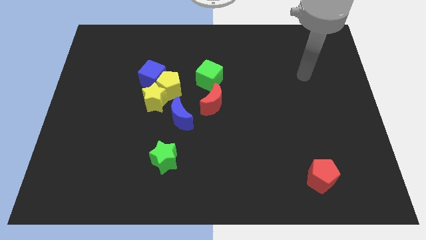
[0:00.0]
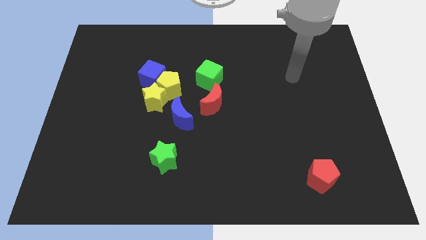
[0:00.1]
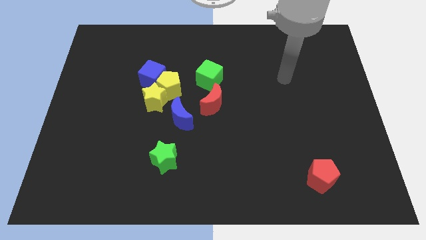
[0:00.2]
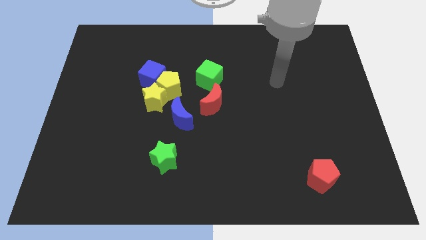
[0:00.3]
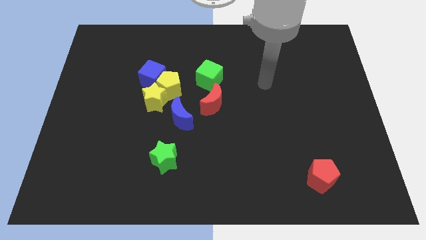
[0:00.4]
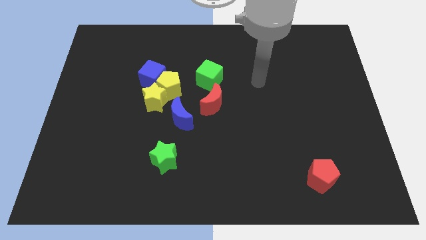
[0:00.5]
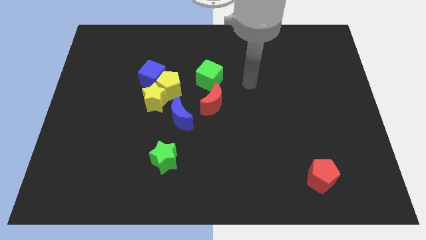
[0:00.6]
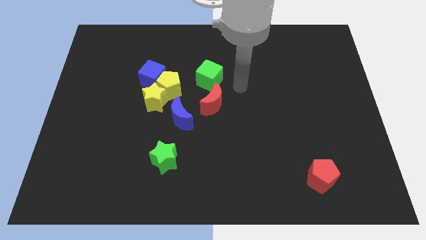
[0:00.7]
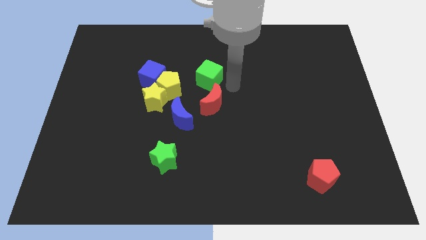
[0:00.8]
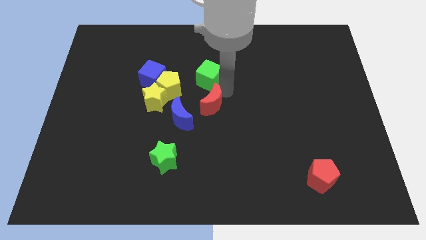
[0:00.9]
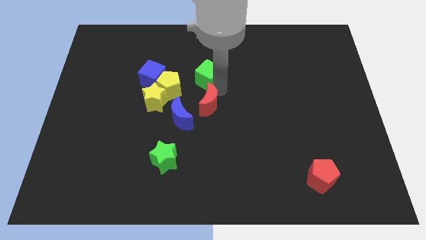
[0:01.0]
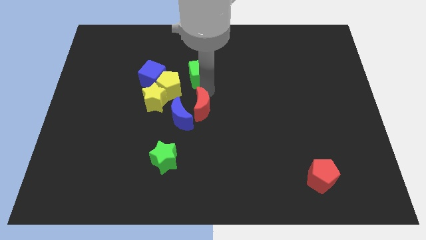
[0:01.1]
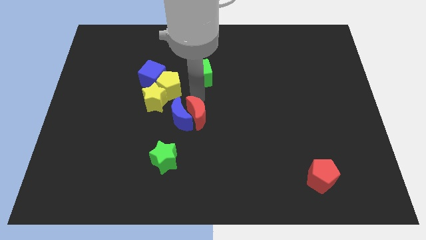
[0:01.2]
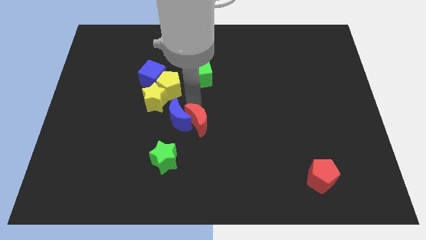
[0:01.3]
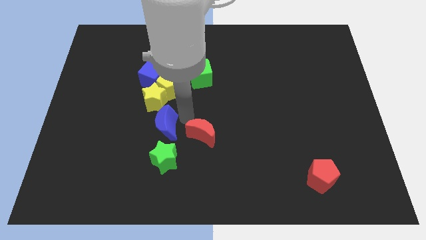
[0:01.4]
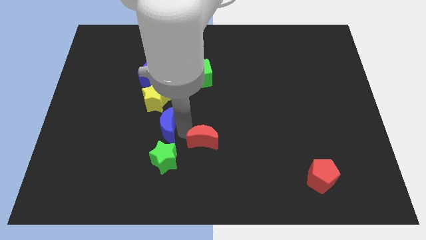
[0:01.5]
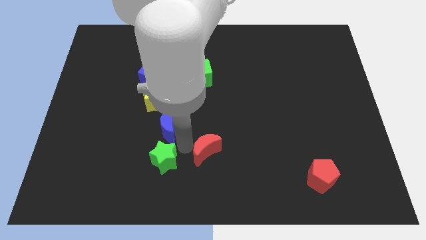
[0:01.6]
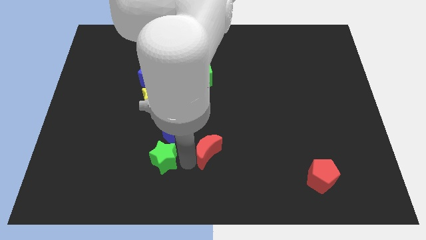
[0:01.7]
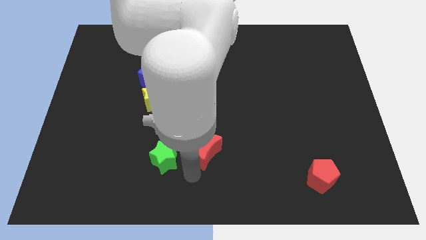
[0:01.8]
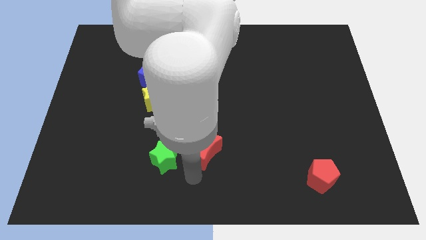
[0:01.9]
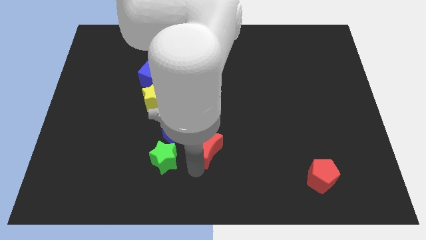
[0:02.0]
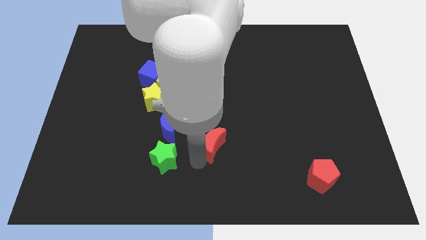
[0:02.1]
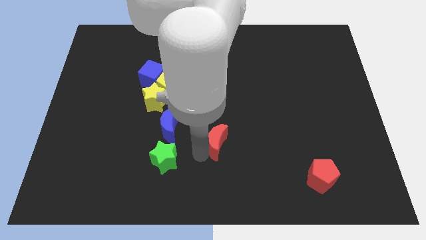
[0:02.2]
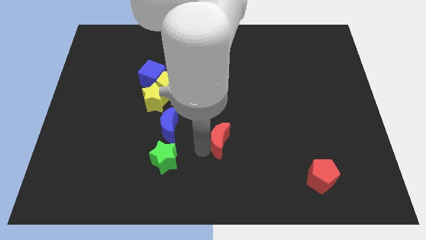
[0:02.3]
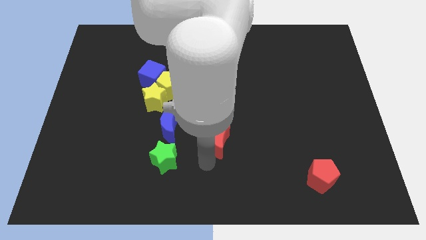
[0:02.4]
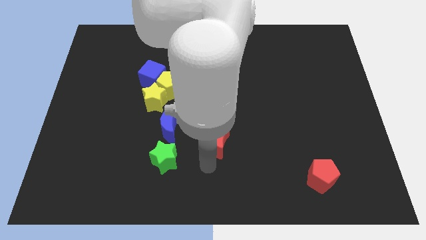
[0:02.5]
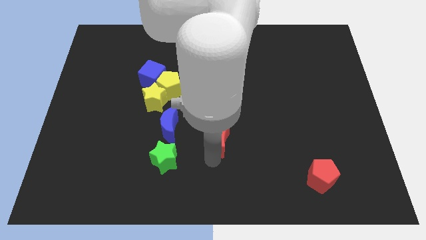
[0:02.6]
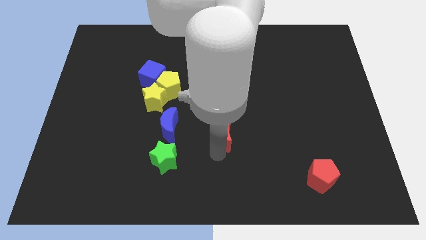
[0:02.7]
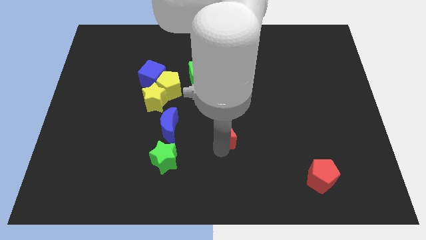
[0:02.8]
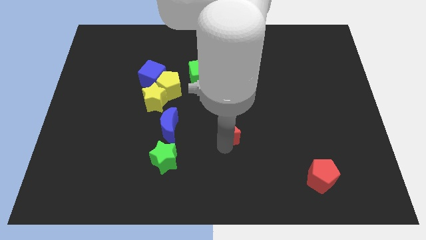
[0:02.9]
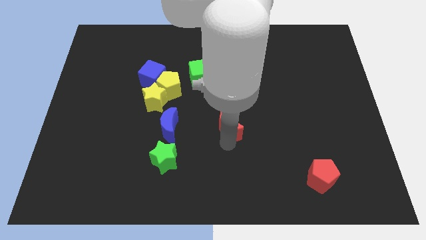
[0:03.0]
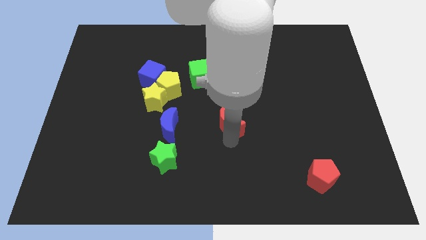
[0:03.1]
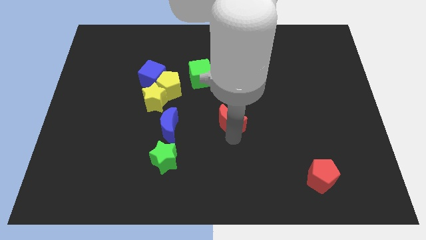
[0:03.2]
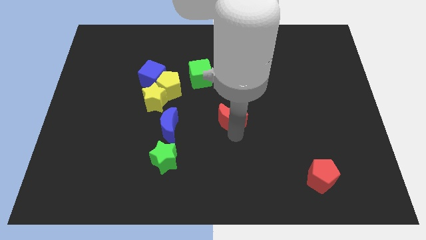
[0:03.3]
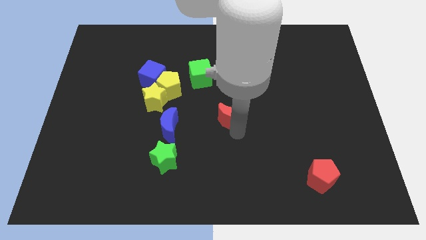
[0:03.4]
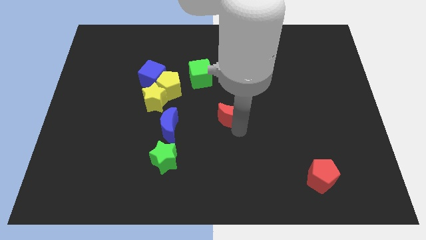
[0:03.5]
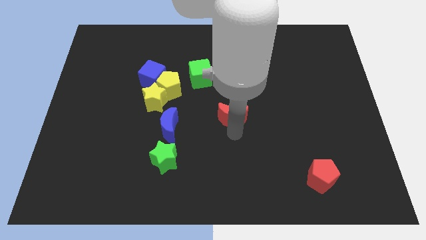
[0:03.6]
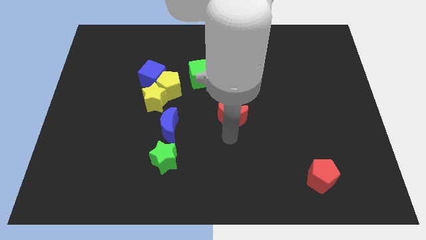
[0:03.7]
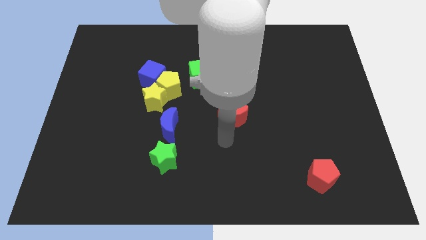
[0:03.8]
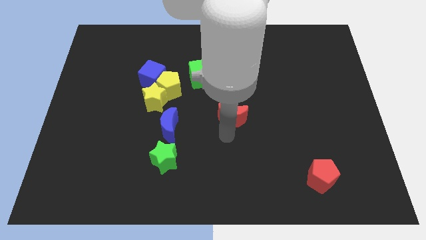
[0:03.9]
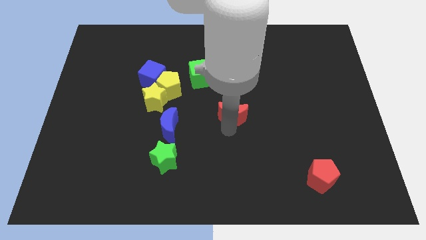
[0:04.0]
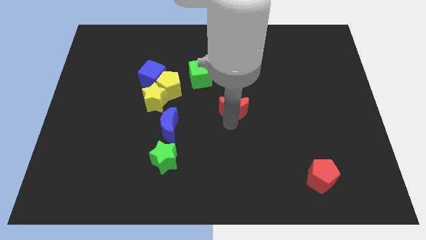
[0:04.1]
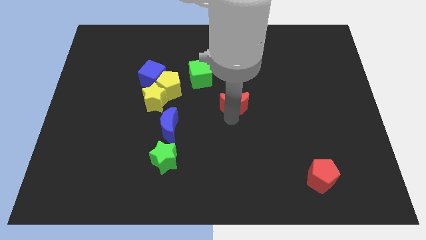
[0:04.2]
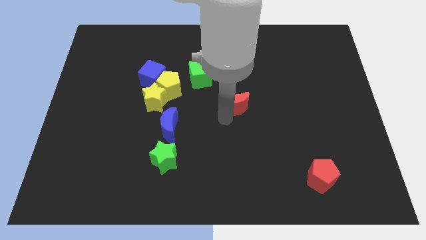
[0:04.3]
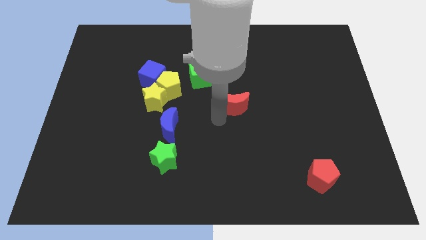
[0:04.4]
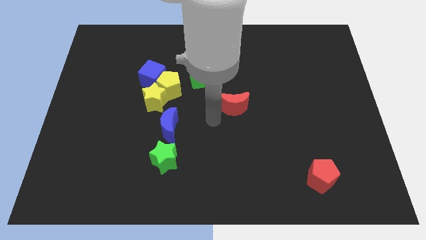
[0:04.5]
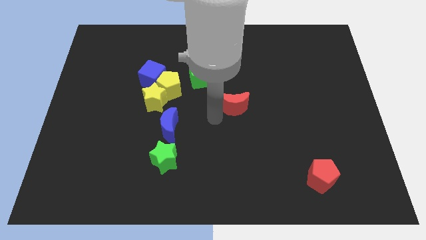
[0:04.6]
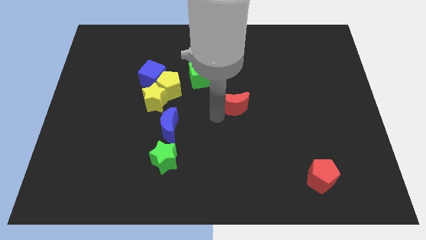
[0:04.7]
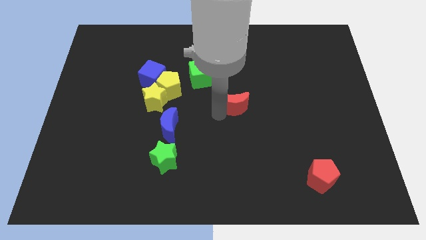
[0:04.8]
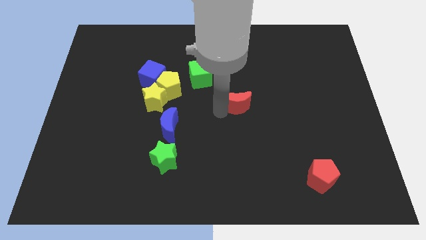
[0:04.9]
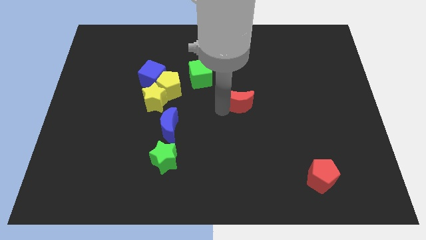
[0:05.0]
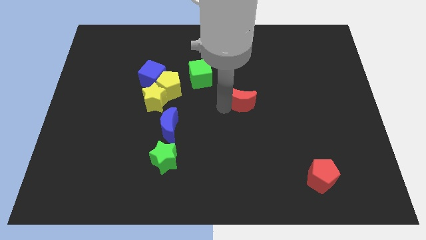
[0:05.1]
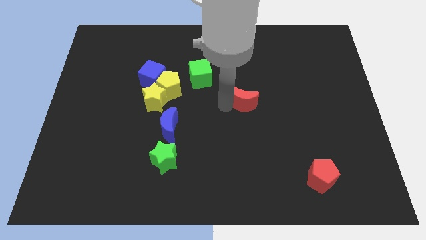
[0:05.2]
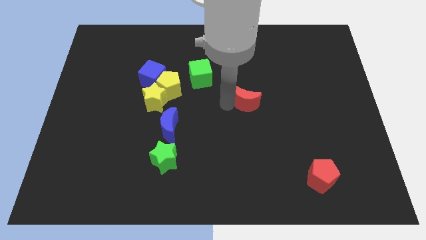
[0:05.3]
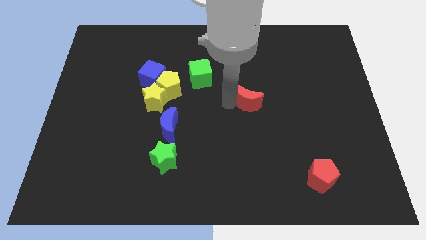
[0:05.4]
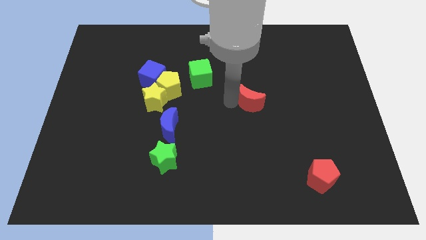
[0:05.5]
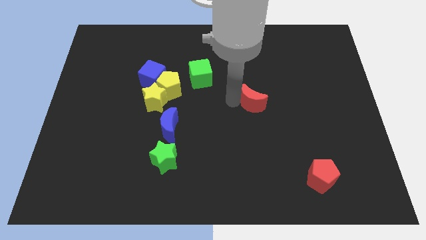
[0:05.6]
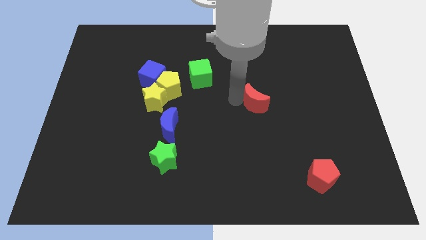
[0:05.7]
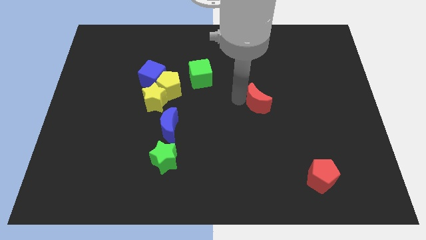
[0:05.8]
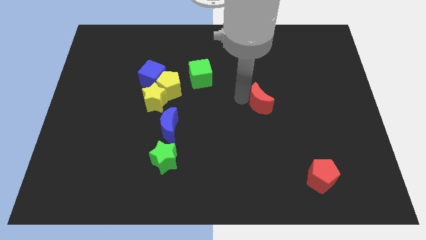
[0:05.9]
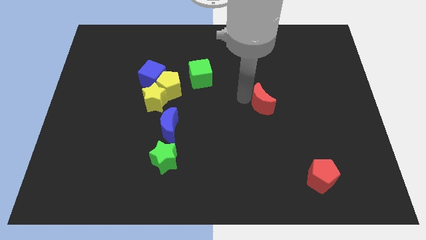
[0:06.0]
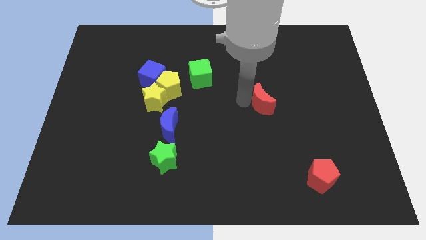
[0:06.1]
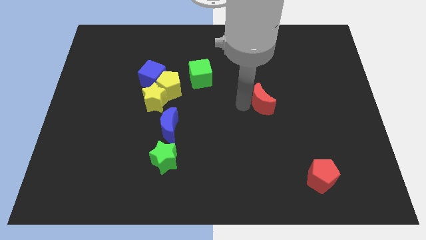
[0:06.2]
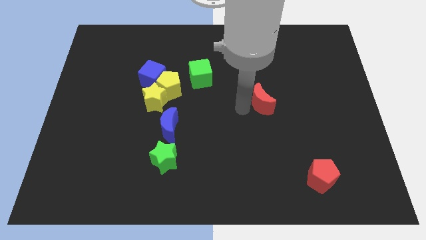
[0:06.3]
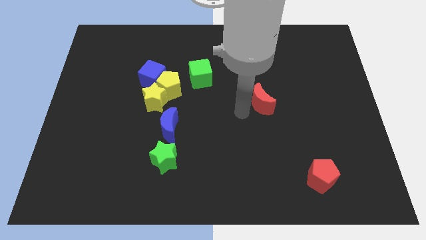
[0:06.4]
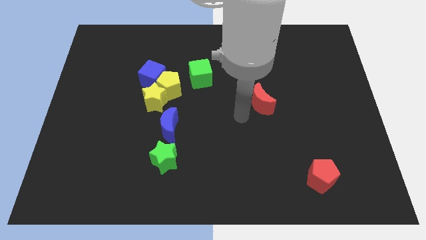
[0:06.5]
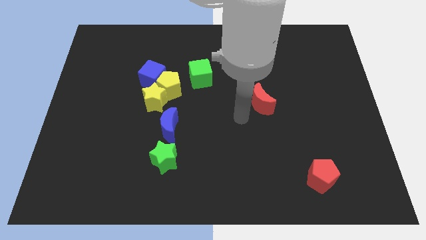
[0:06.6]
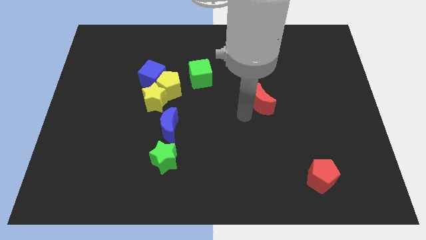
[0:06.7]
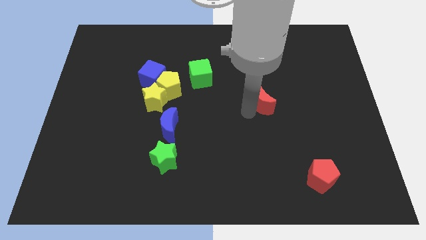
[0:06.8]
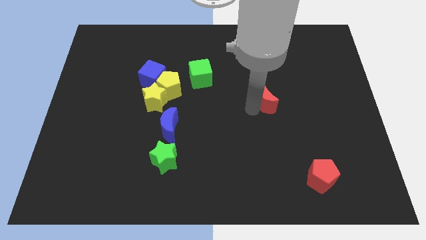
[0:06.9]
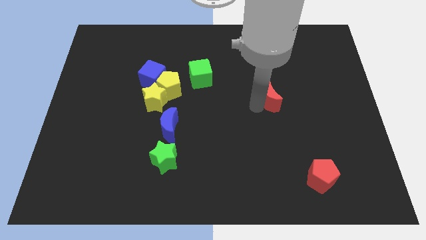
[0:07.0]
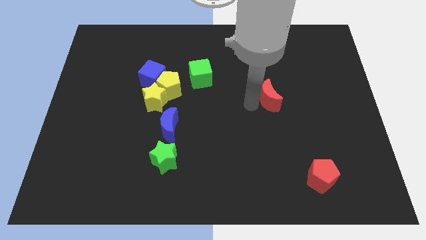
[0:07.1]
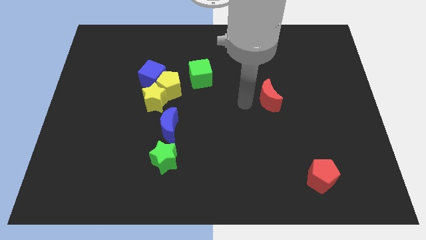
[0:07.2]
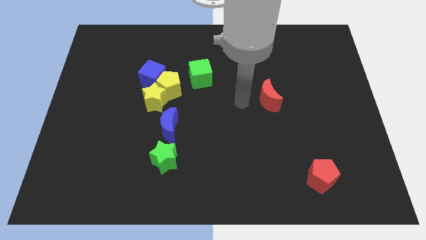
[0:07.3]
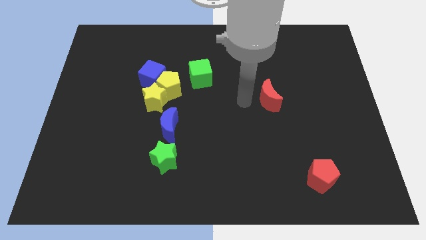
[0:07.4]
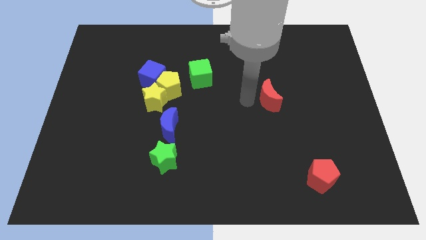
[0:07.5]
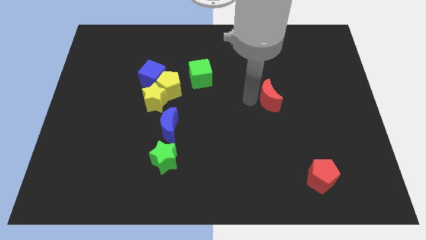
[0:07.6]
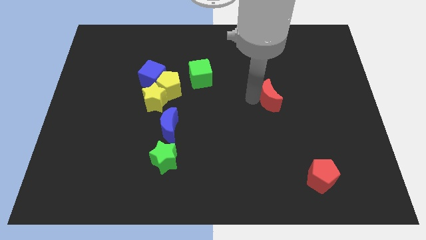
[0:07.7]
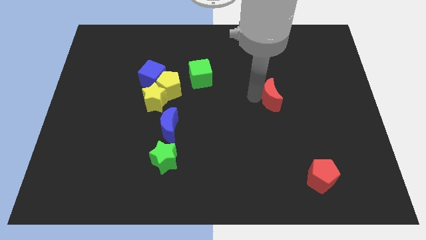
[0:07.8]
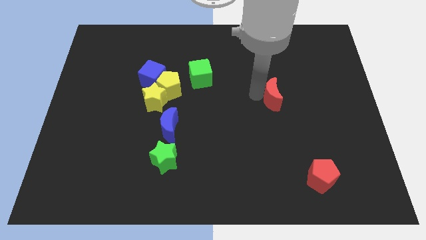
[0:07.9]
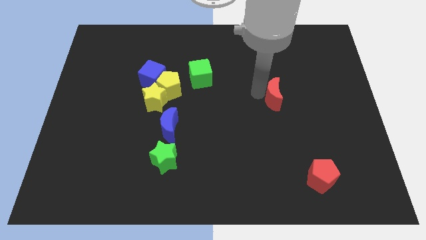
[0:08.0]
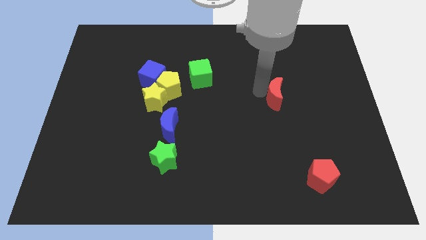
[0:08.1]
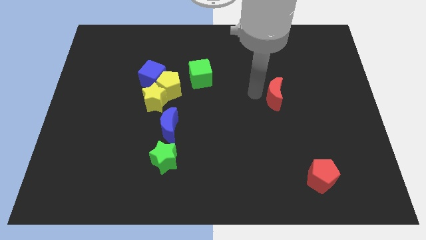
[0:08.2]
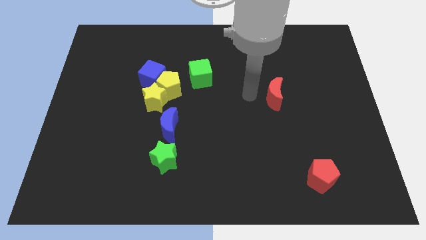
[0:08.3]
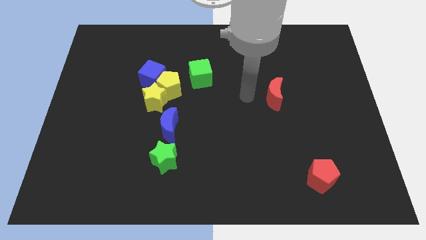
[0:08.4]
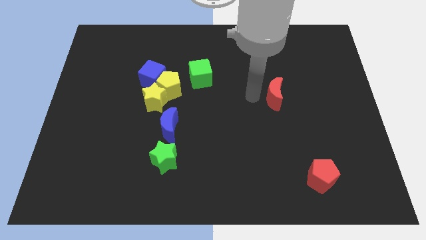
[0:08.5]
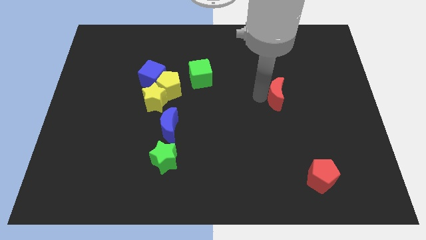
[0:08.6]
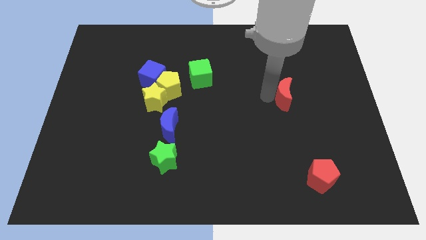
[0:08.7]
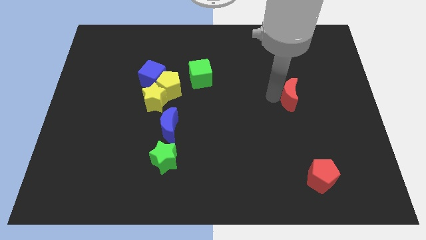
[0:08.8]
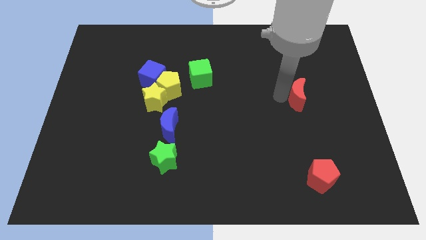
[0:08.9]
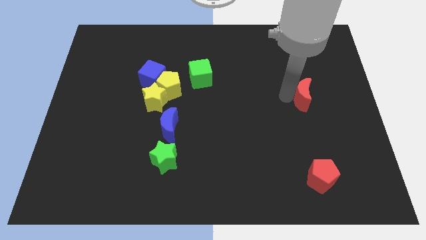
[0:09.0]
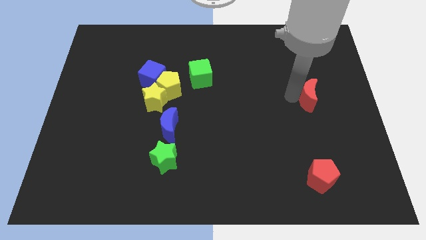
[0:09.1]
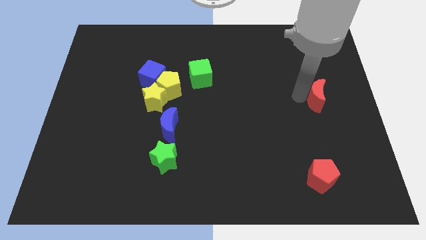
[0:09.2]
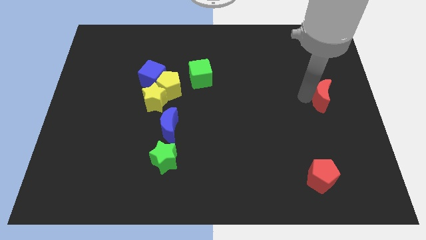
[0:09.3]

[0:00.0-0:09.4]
push the red moon to the center right
